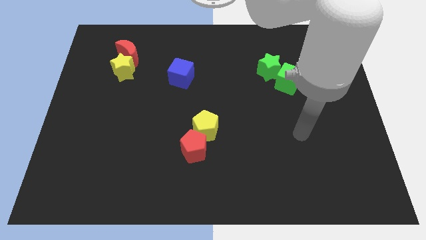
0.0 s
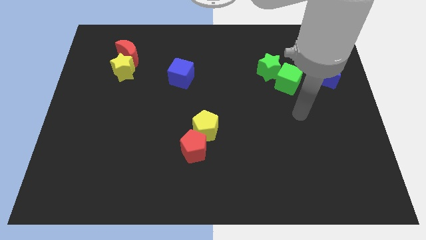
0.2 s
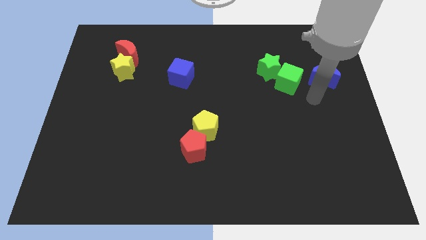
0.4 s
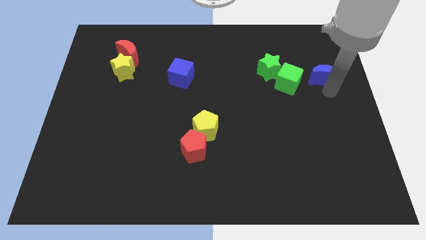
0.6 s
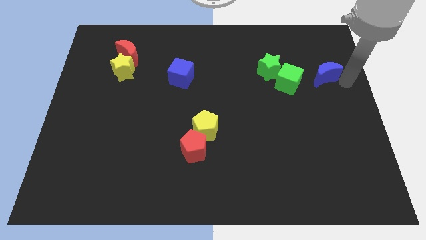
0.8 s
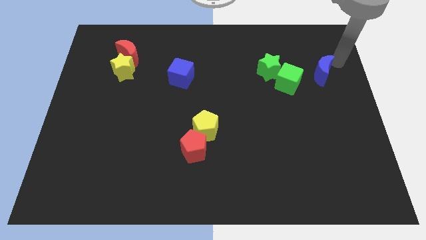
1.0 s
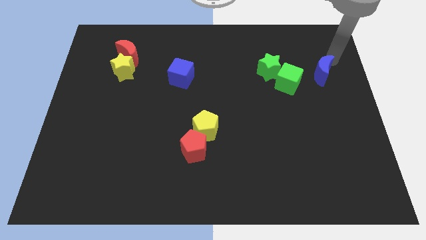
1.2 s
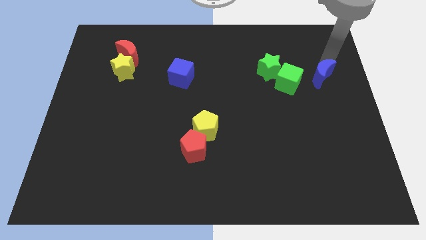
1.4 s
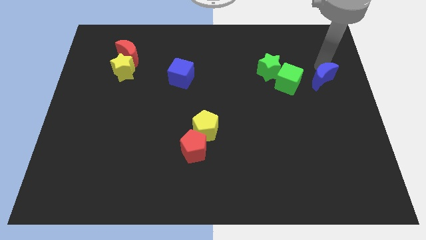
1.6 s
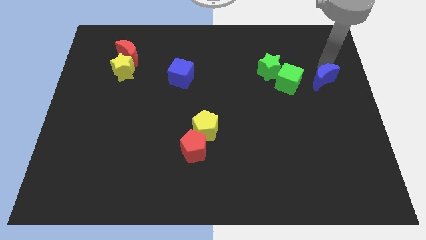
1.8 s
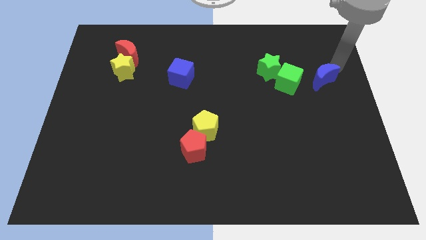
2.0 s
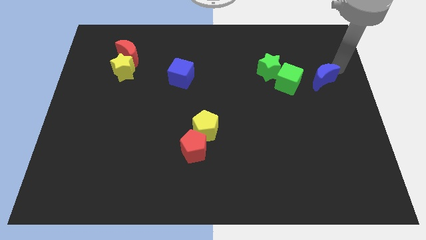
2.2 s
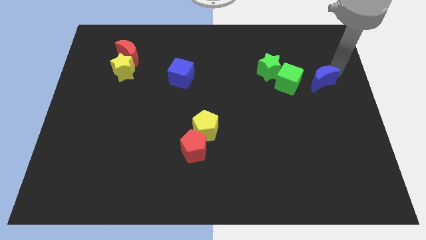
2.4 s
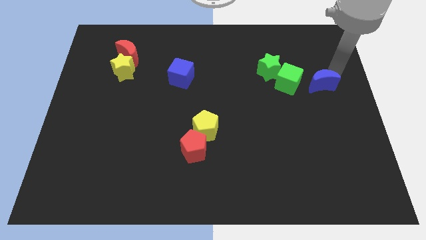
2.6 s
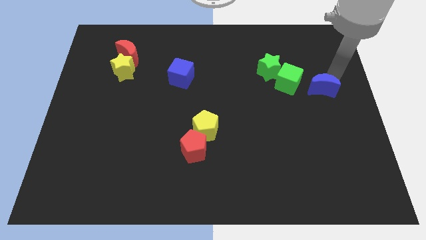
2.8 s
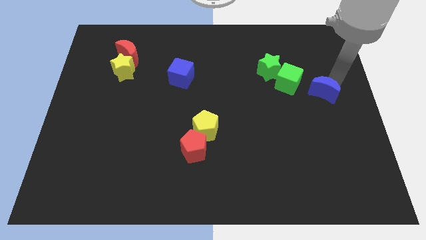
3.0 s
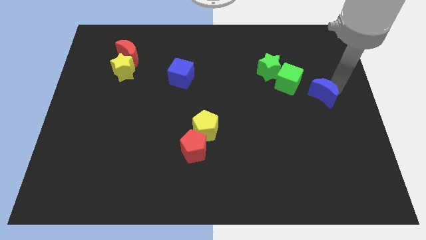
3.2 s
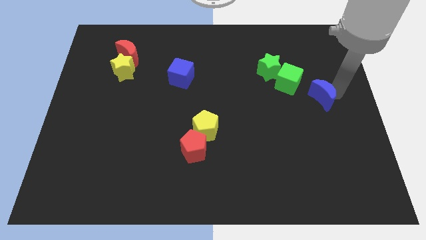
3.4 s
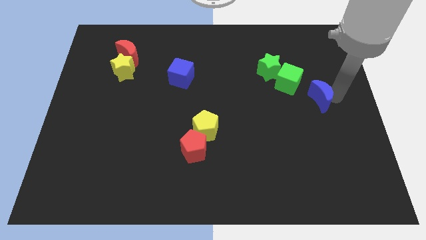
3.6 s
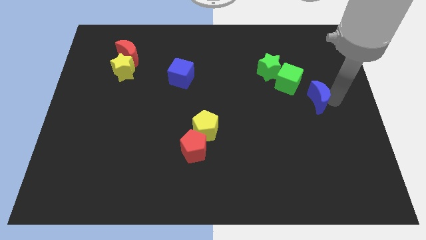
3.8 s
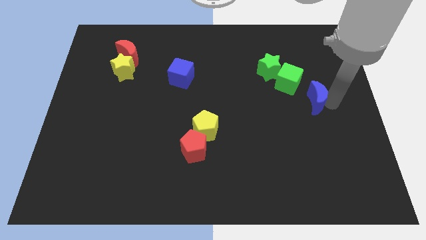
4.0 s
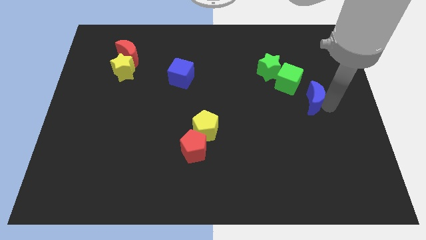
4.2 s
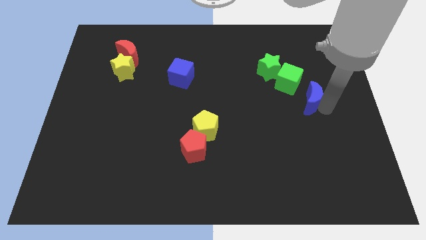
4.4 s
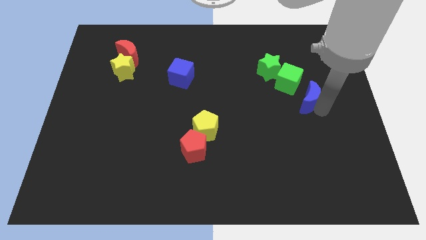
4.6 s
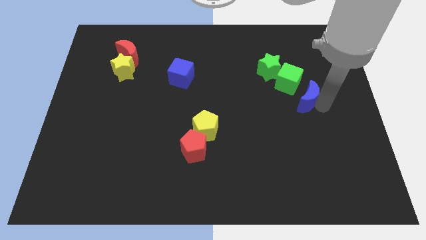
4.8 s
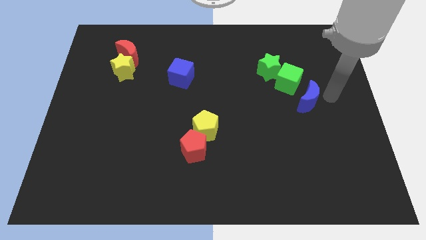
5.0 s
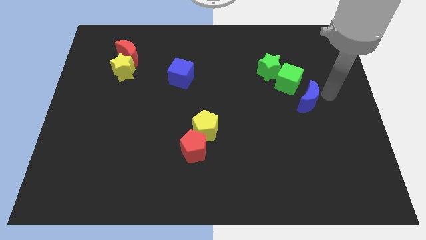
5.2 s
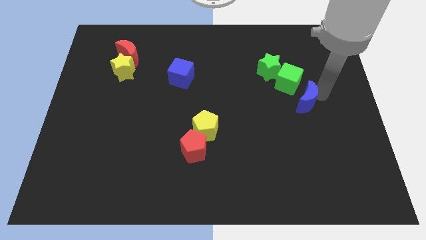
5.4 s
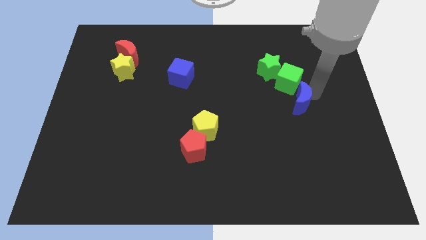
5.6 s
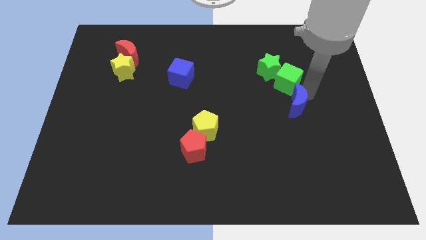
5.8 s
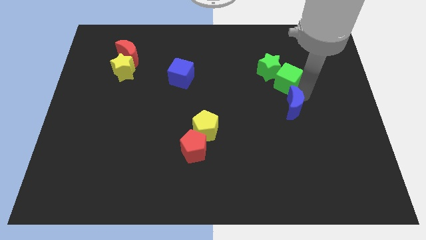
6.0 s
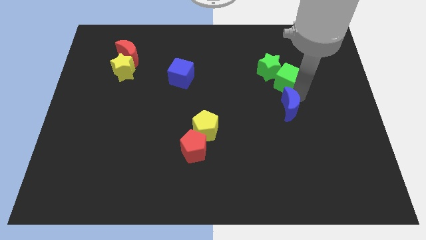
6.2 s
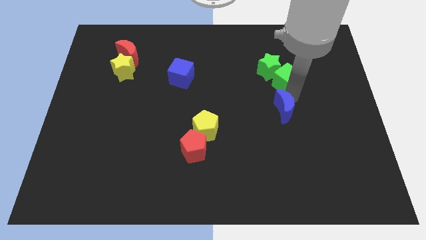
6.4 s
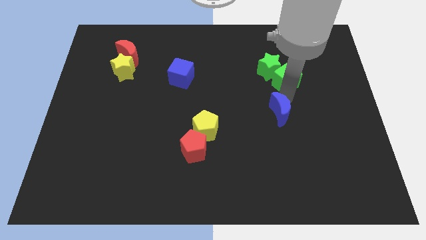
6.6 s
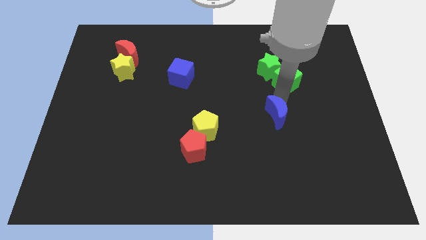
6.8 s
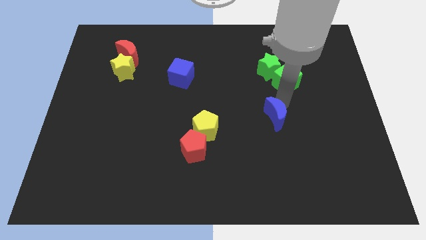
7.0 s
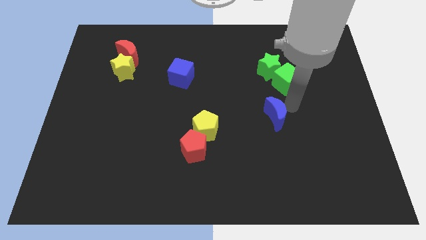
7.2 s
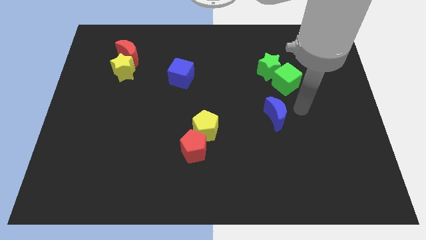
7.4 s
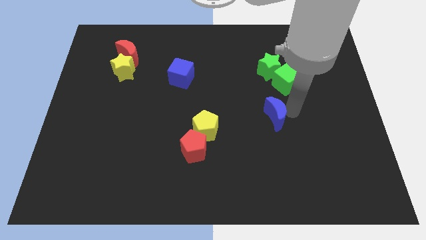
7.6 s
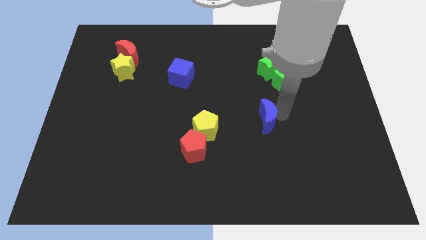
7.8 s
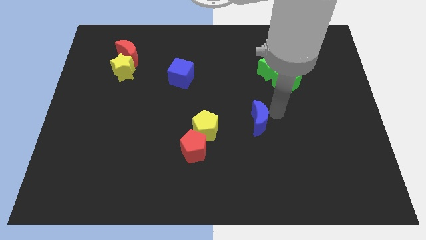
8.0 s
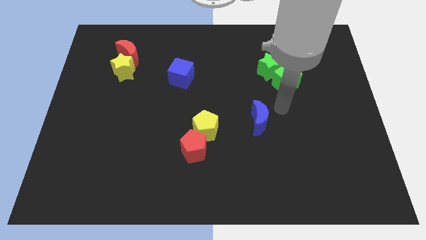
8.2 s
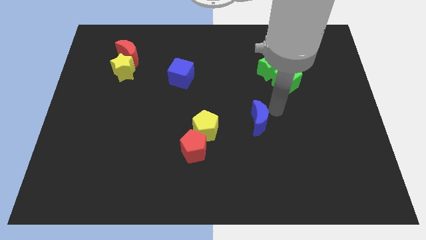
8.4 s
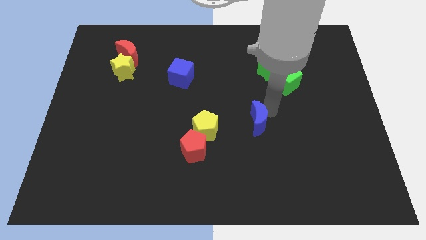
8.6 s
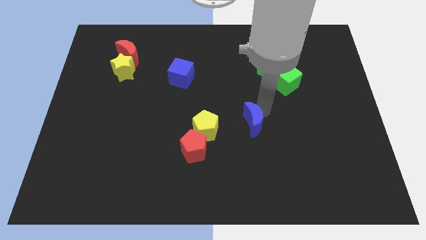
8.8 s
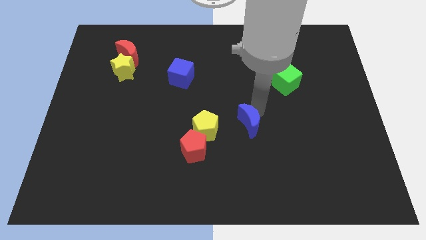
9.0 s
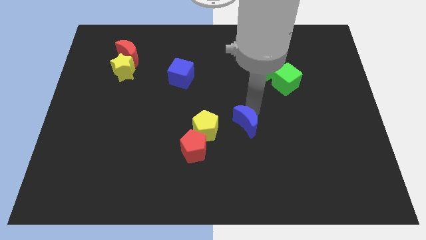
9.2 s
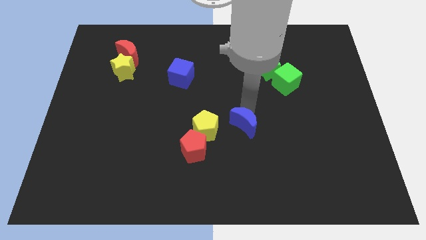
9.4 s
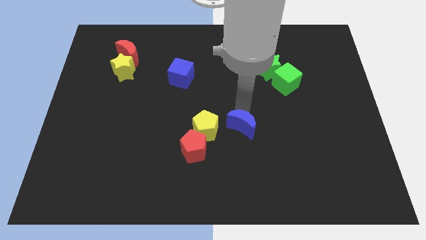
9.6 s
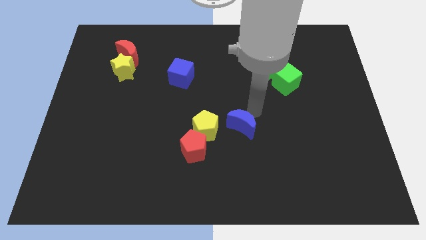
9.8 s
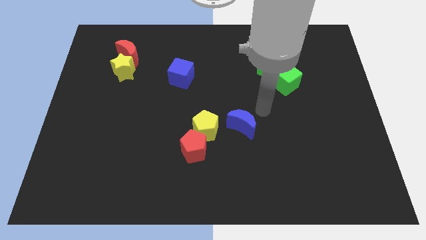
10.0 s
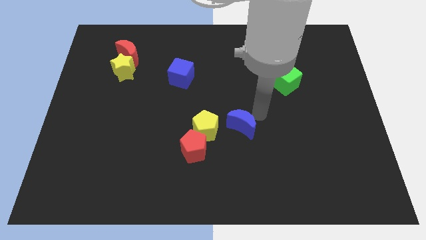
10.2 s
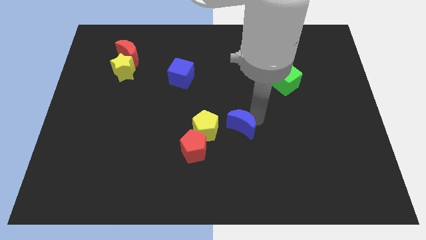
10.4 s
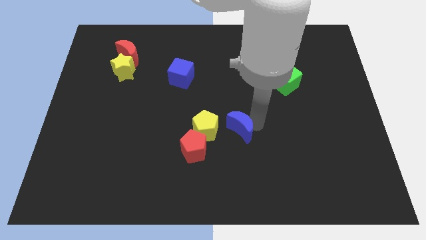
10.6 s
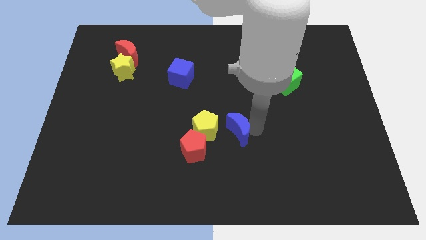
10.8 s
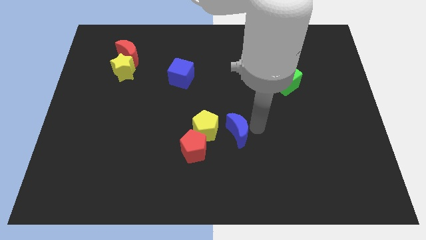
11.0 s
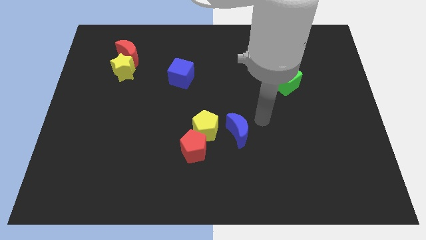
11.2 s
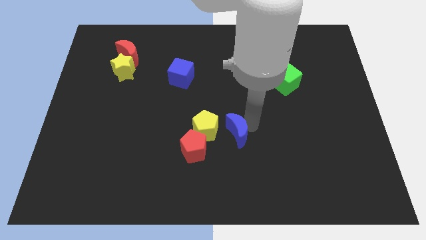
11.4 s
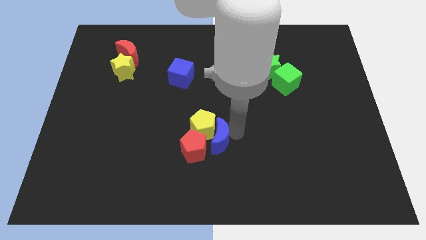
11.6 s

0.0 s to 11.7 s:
put the blue moon towards the red pentagon

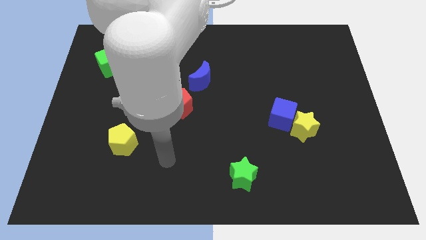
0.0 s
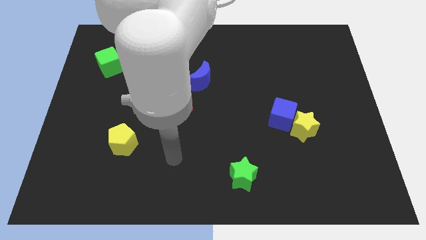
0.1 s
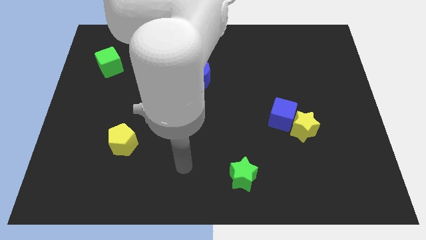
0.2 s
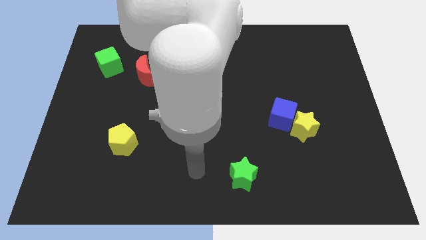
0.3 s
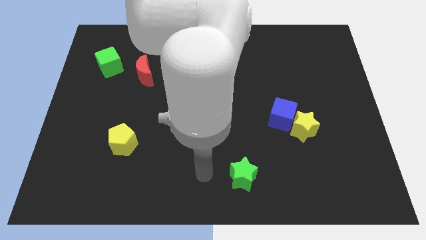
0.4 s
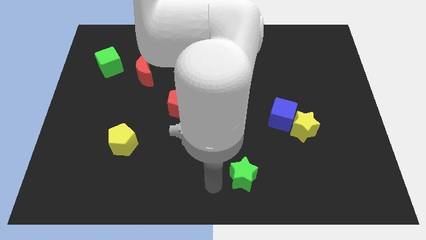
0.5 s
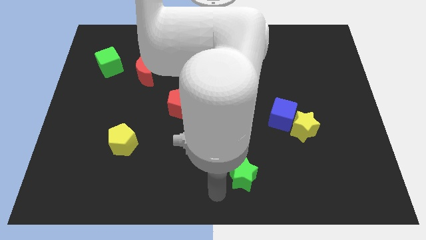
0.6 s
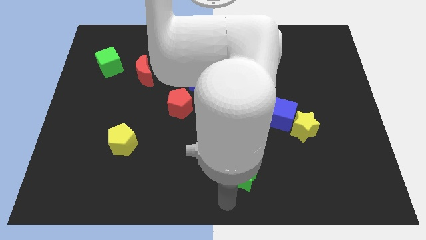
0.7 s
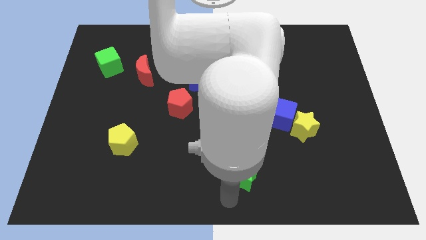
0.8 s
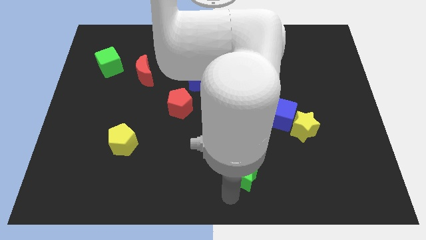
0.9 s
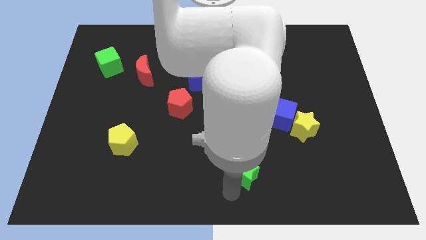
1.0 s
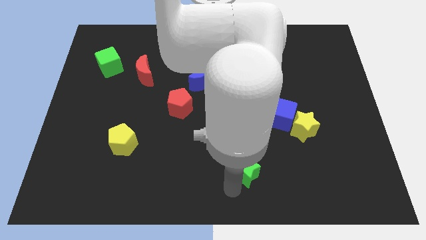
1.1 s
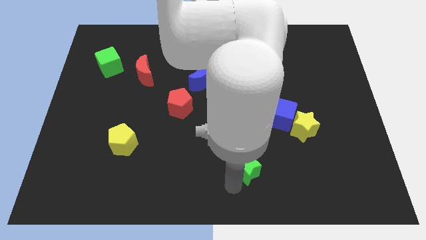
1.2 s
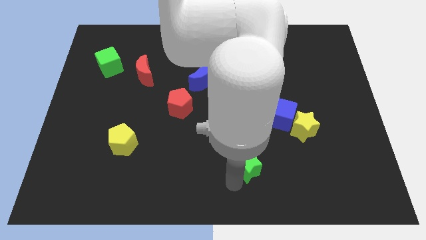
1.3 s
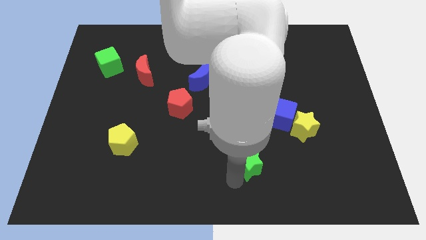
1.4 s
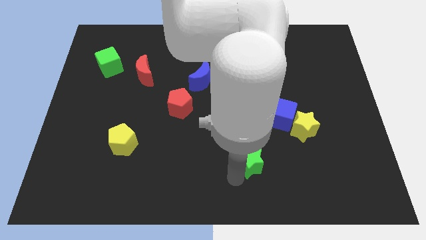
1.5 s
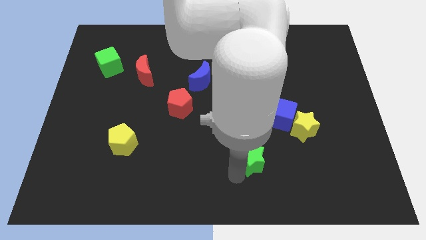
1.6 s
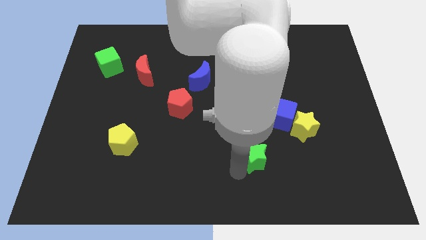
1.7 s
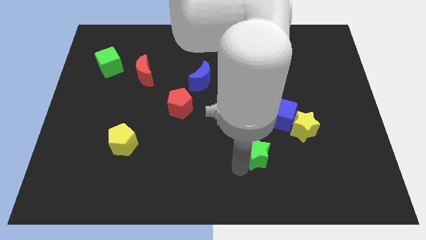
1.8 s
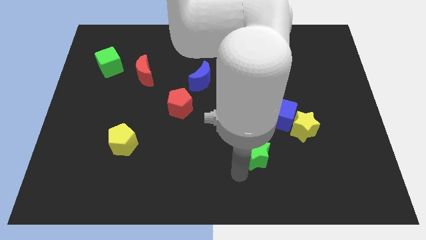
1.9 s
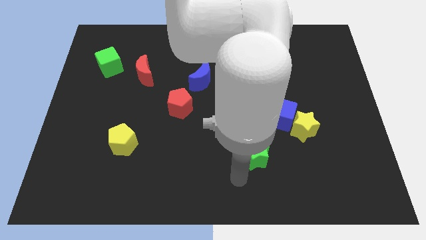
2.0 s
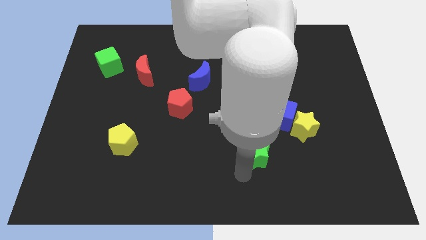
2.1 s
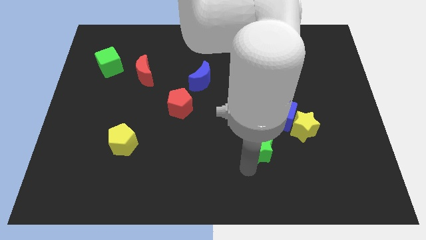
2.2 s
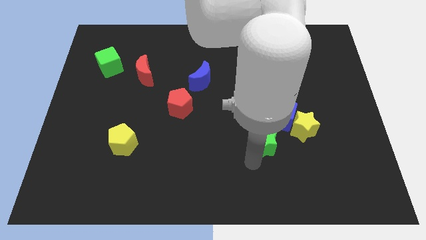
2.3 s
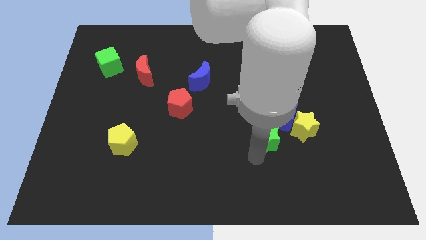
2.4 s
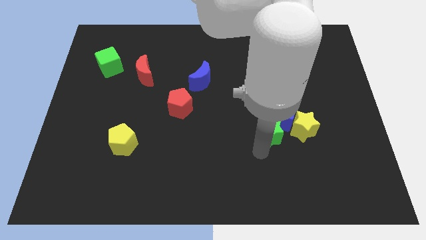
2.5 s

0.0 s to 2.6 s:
push the green star close to the blue cube

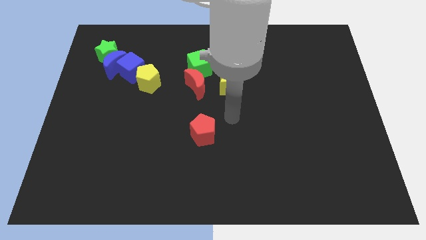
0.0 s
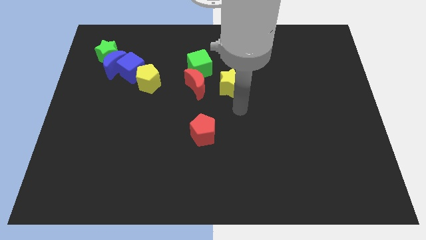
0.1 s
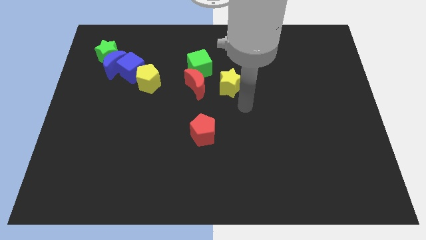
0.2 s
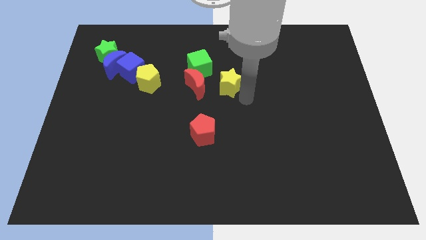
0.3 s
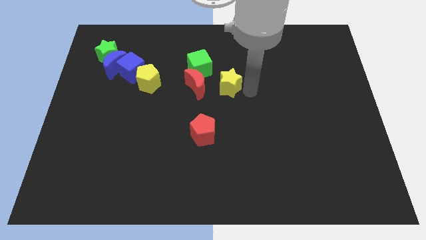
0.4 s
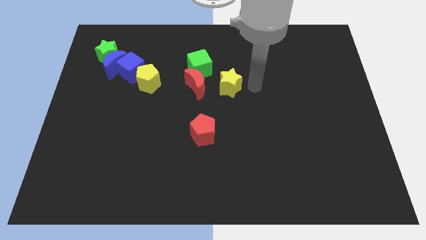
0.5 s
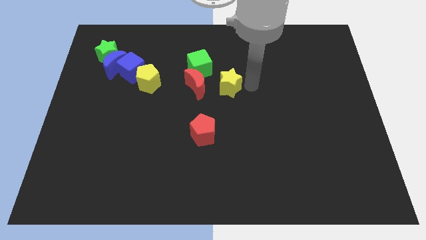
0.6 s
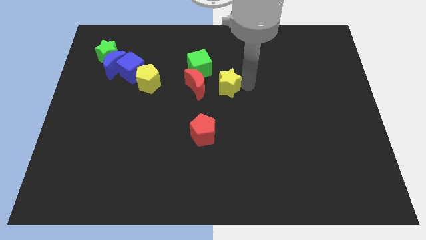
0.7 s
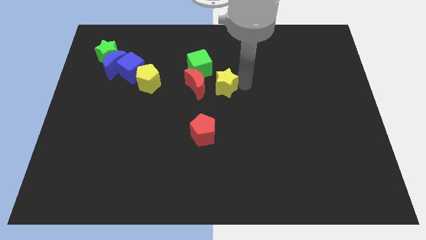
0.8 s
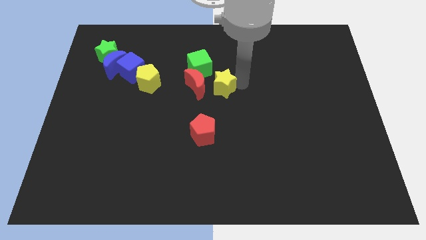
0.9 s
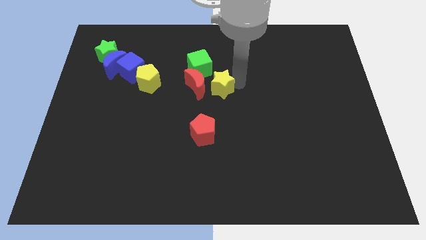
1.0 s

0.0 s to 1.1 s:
push the yellow star towards the red moon
